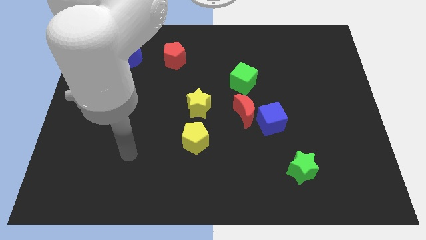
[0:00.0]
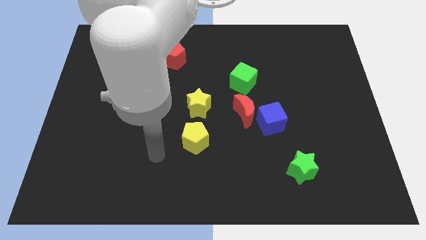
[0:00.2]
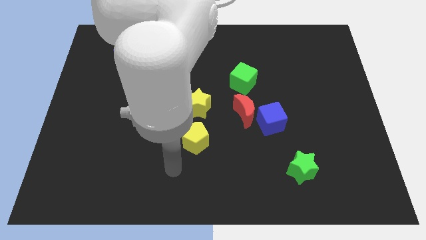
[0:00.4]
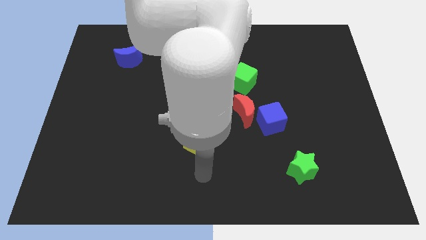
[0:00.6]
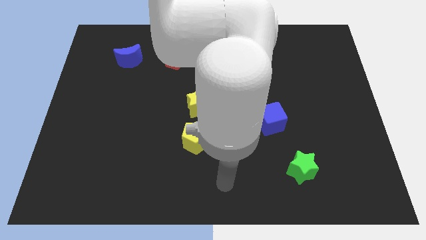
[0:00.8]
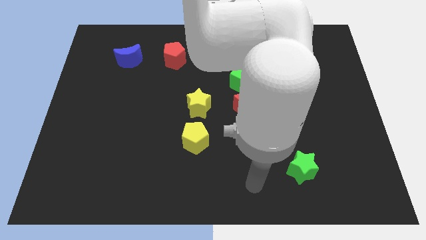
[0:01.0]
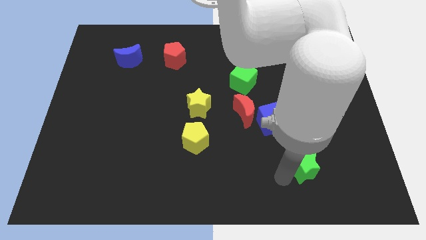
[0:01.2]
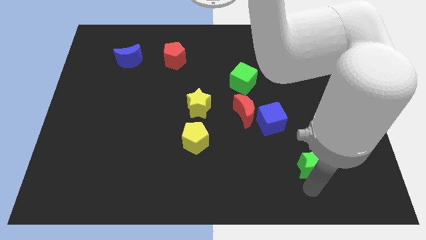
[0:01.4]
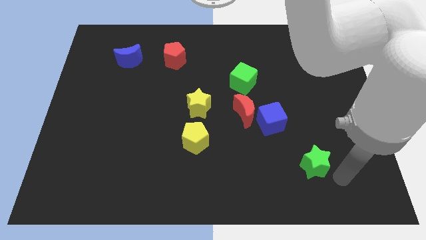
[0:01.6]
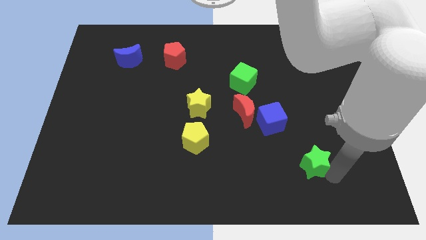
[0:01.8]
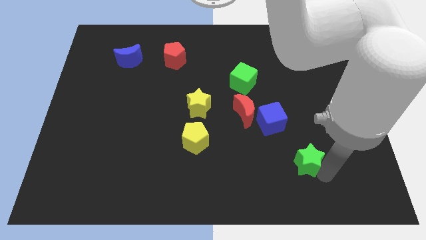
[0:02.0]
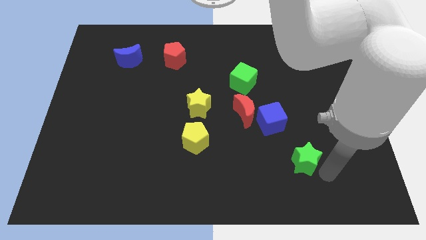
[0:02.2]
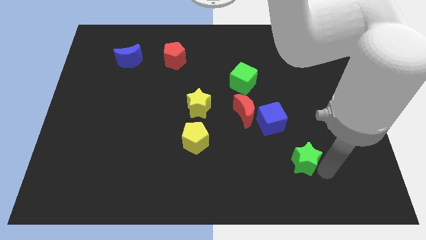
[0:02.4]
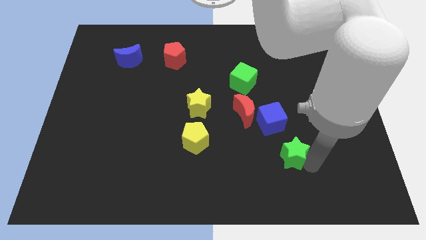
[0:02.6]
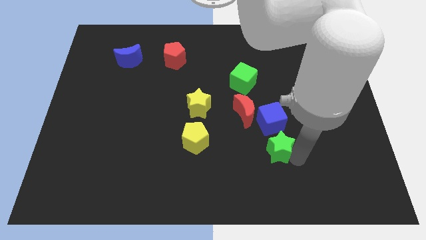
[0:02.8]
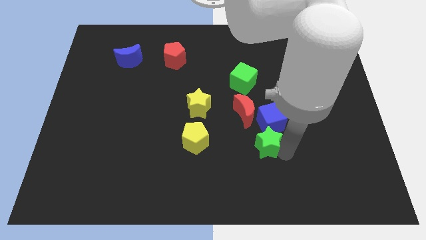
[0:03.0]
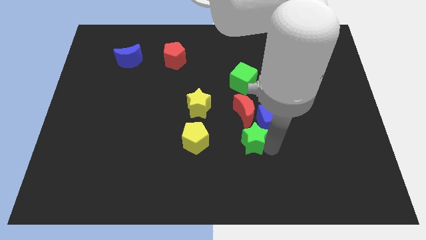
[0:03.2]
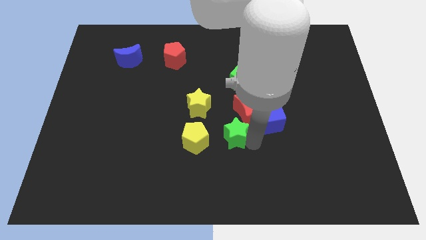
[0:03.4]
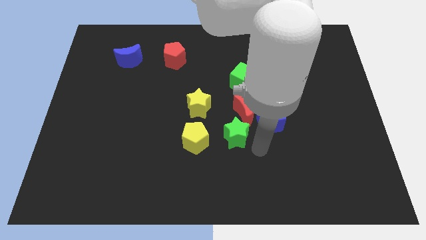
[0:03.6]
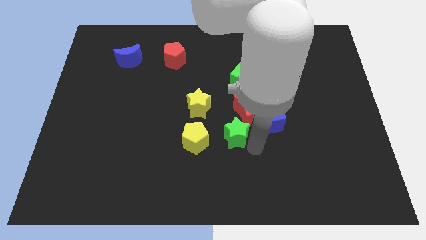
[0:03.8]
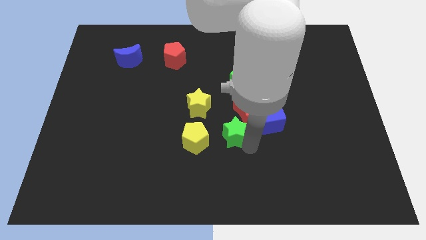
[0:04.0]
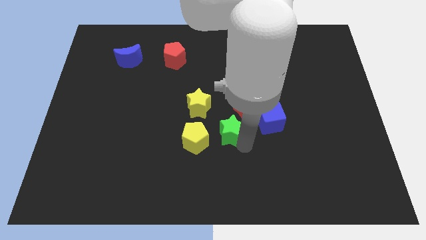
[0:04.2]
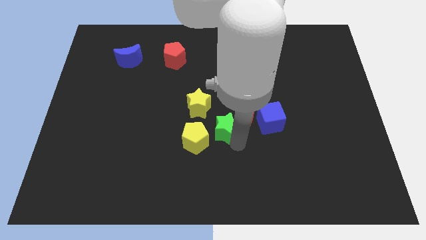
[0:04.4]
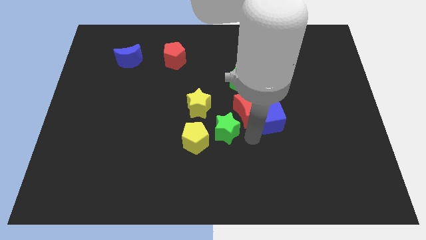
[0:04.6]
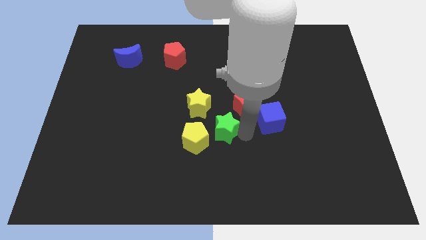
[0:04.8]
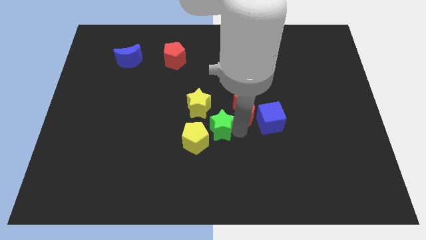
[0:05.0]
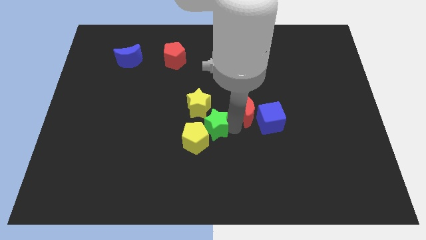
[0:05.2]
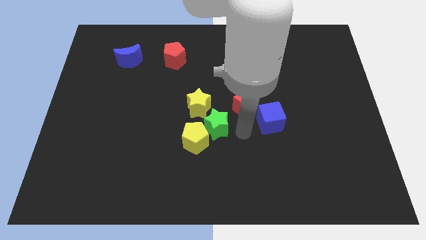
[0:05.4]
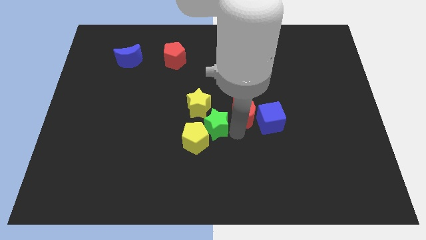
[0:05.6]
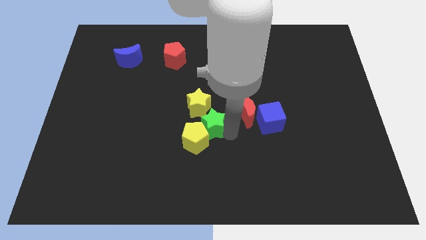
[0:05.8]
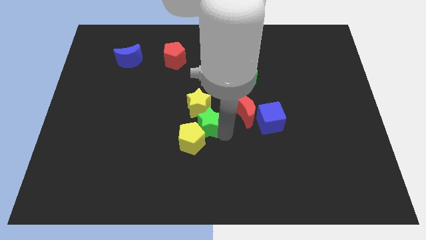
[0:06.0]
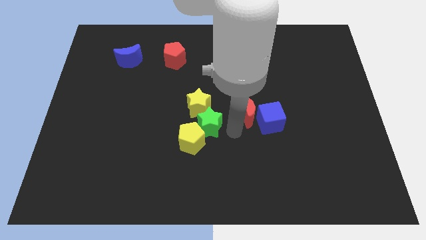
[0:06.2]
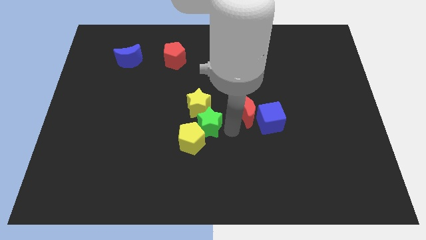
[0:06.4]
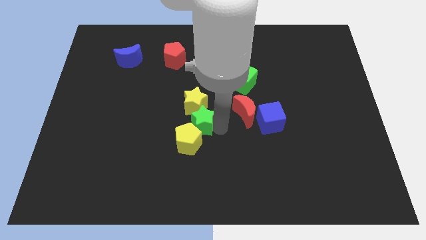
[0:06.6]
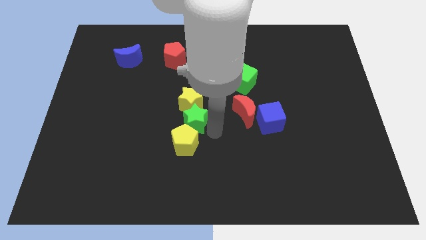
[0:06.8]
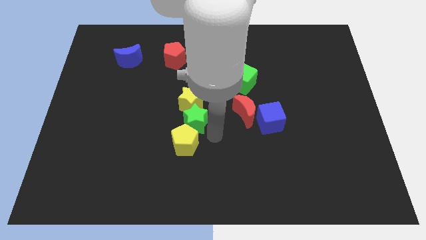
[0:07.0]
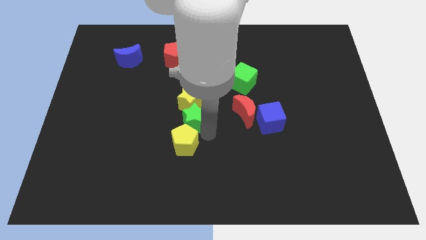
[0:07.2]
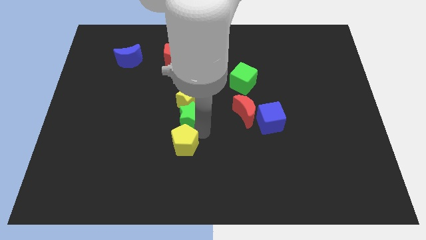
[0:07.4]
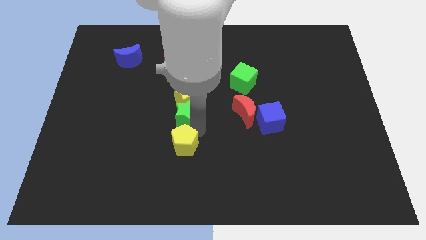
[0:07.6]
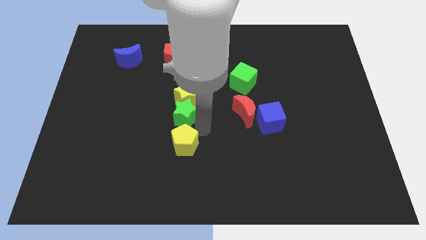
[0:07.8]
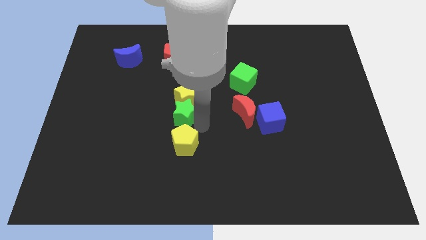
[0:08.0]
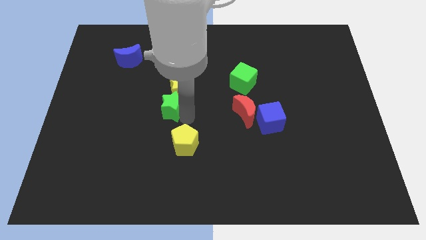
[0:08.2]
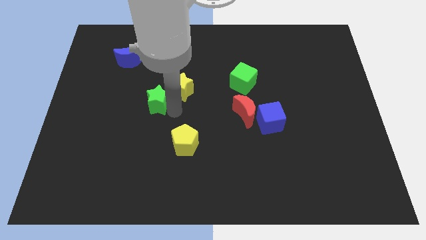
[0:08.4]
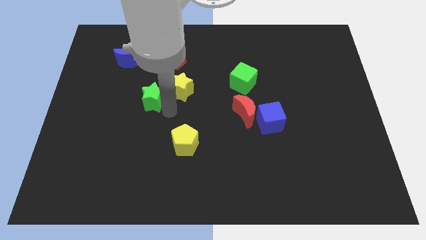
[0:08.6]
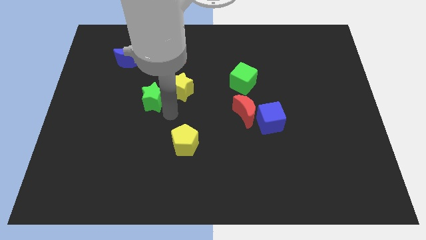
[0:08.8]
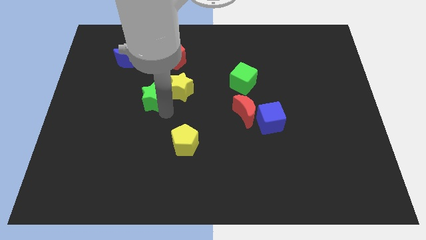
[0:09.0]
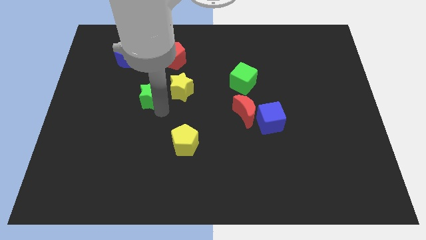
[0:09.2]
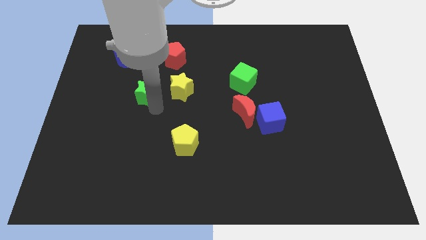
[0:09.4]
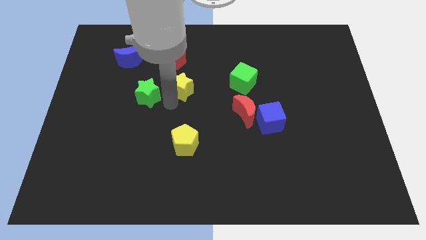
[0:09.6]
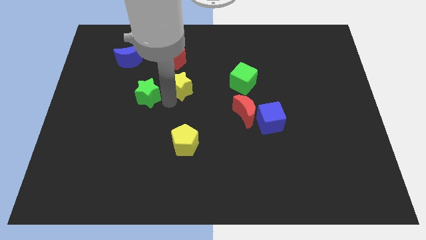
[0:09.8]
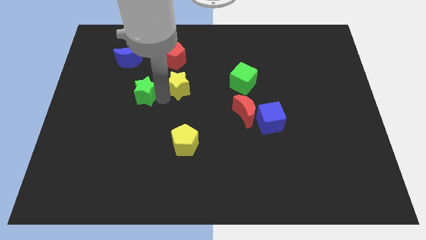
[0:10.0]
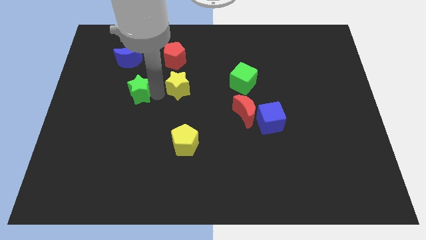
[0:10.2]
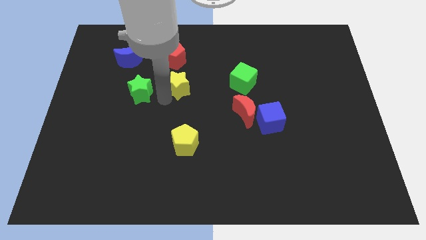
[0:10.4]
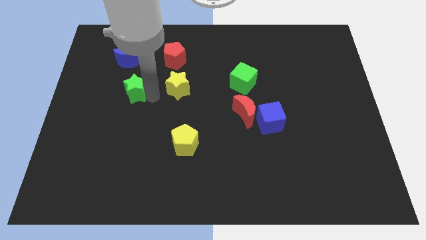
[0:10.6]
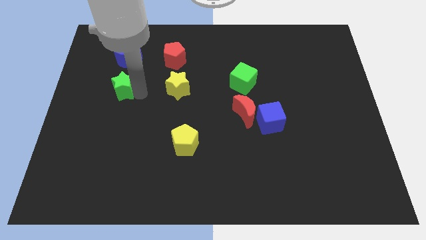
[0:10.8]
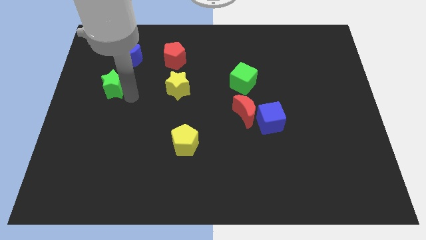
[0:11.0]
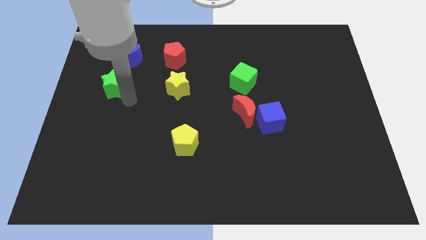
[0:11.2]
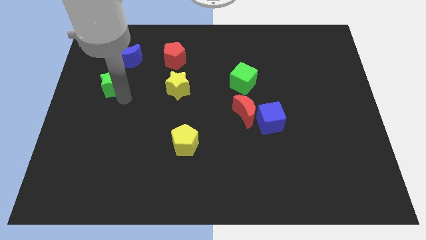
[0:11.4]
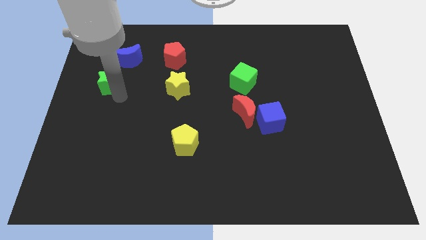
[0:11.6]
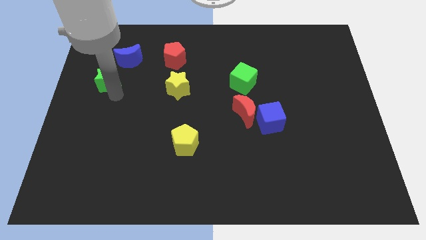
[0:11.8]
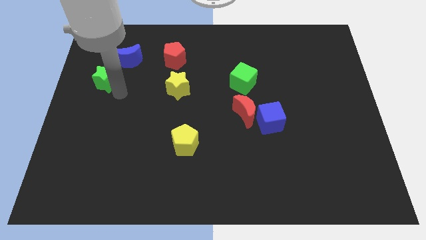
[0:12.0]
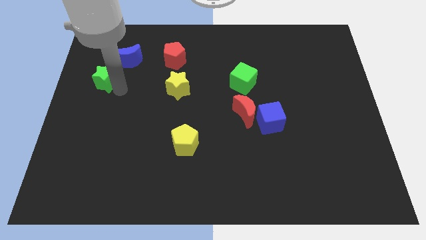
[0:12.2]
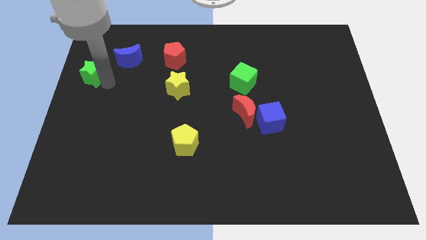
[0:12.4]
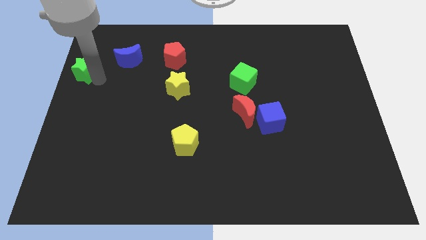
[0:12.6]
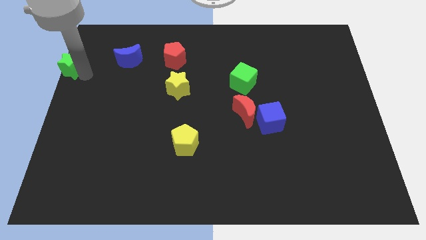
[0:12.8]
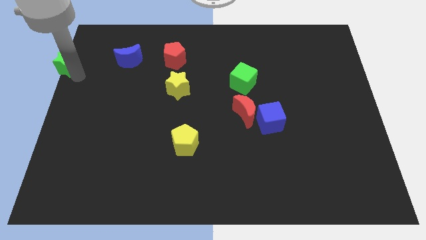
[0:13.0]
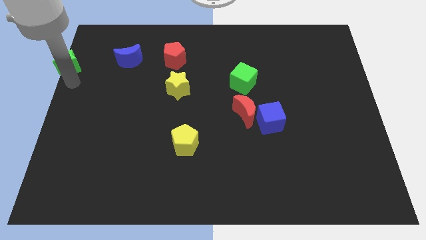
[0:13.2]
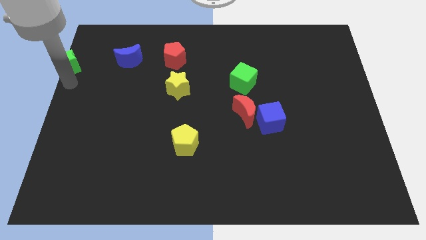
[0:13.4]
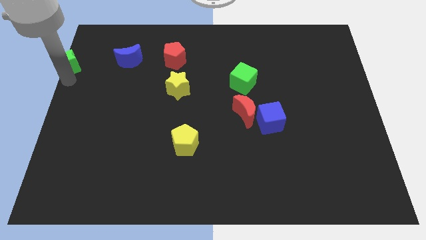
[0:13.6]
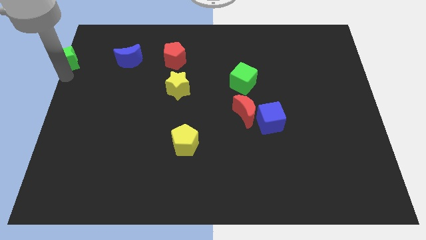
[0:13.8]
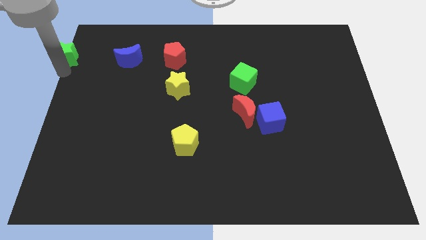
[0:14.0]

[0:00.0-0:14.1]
slide the green star to the top left
